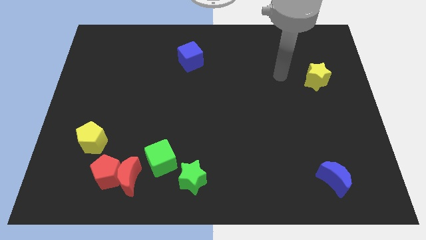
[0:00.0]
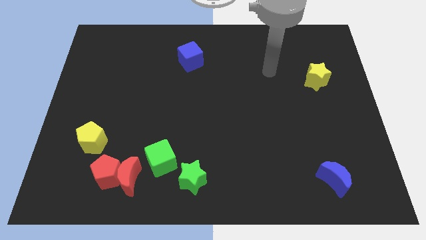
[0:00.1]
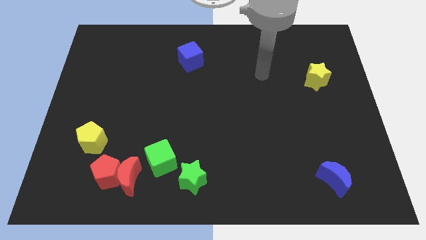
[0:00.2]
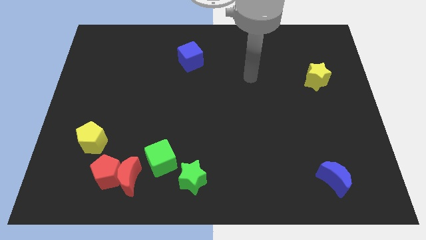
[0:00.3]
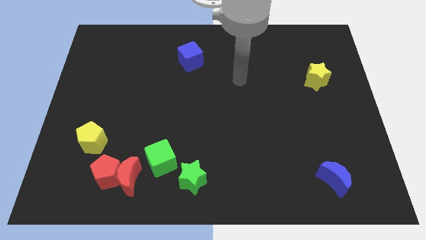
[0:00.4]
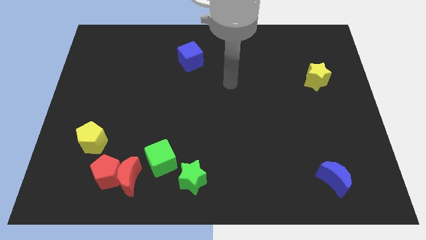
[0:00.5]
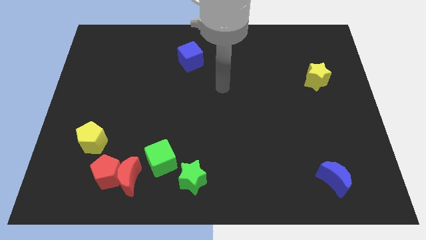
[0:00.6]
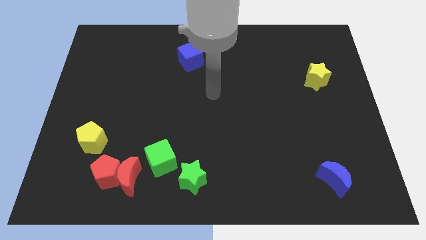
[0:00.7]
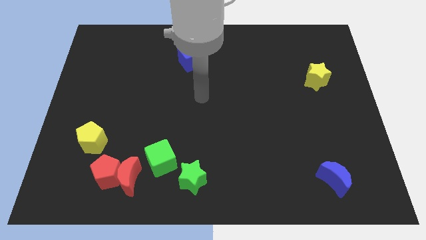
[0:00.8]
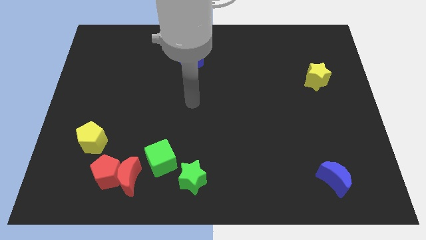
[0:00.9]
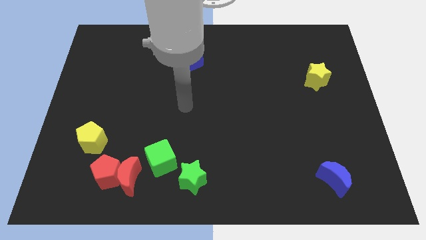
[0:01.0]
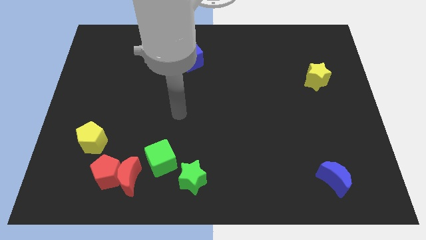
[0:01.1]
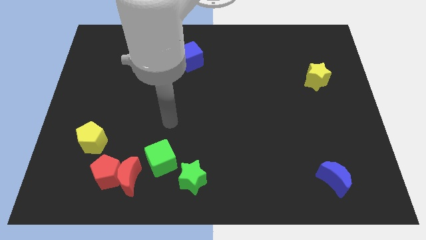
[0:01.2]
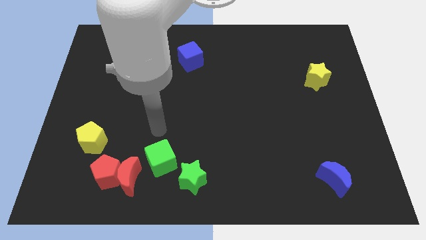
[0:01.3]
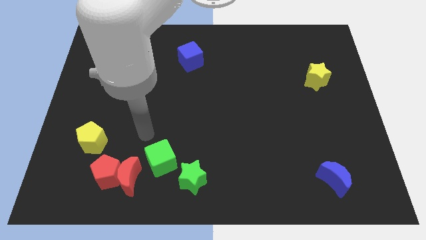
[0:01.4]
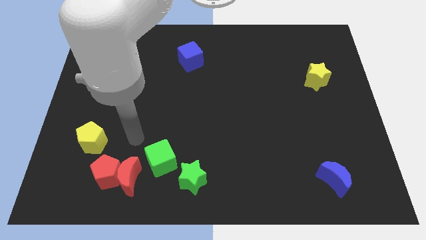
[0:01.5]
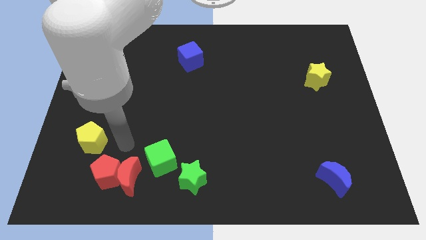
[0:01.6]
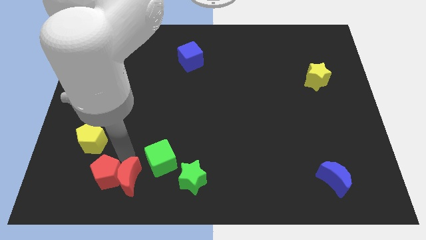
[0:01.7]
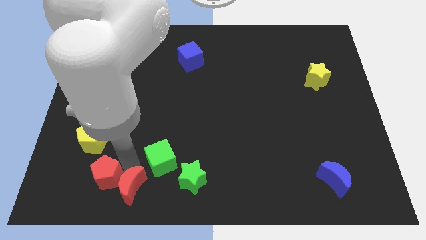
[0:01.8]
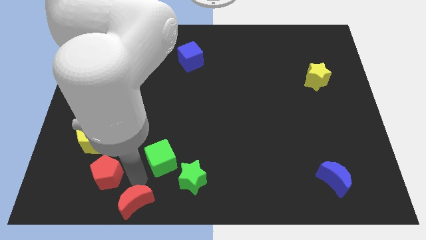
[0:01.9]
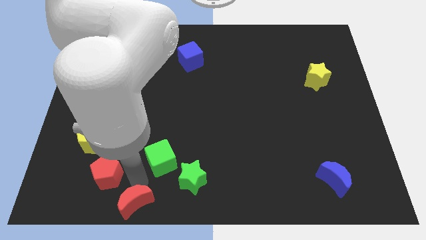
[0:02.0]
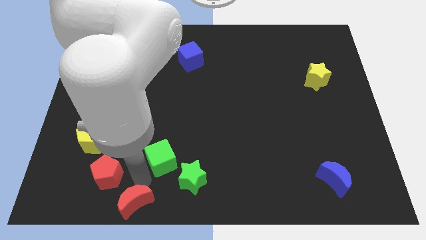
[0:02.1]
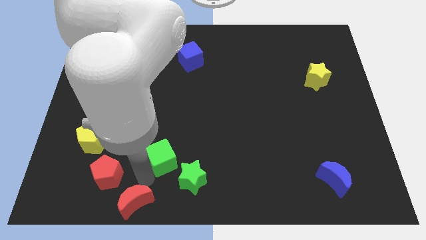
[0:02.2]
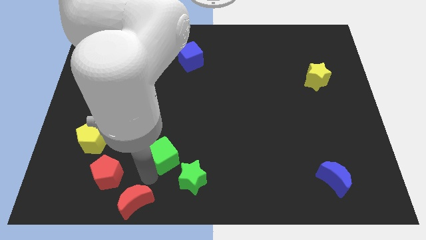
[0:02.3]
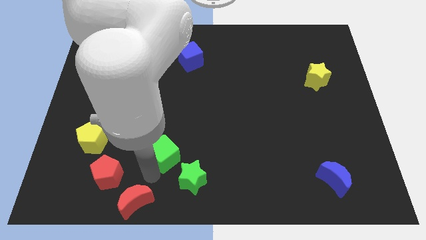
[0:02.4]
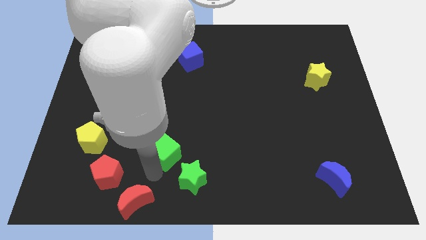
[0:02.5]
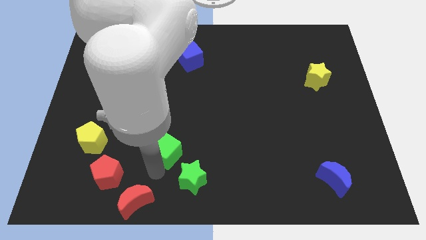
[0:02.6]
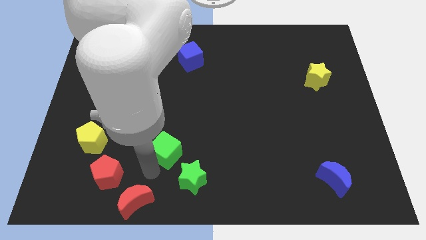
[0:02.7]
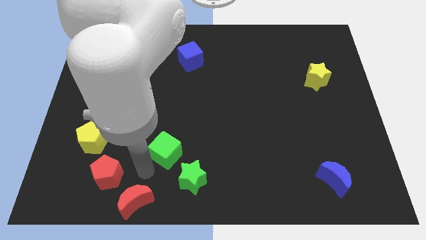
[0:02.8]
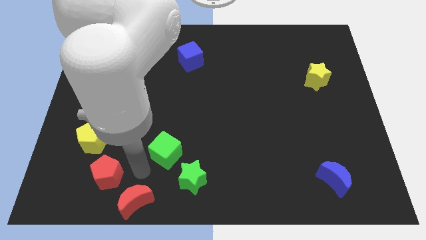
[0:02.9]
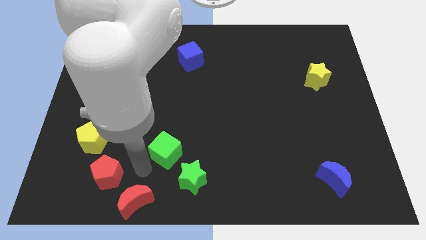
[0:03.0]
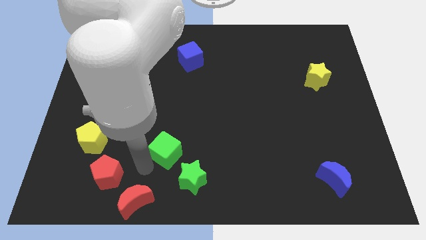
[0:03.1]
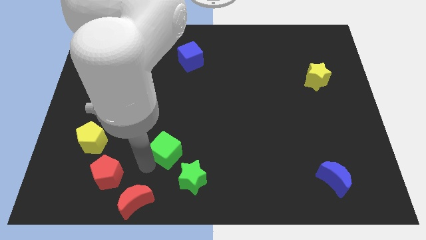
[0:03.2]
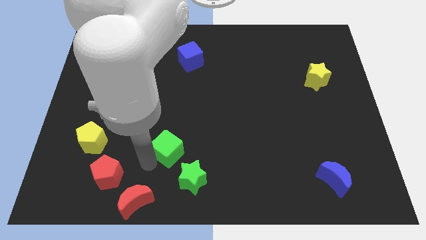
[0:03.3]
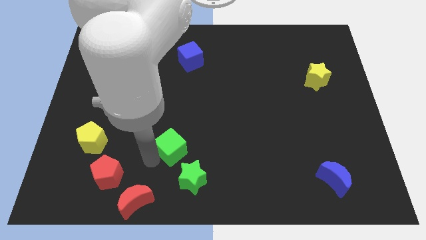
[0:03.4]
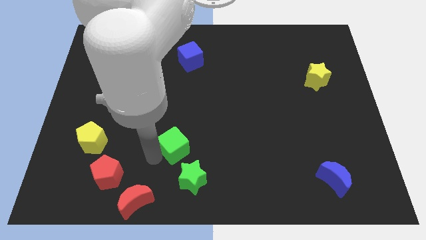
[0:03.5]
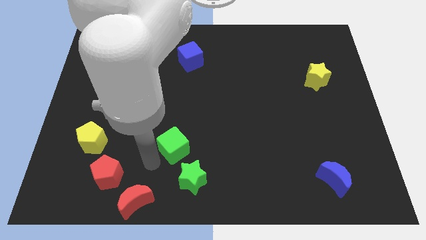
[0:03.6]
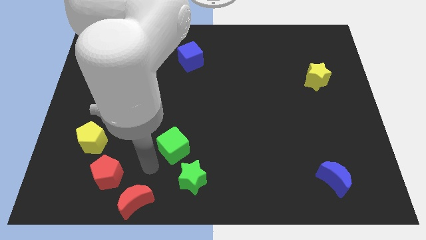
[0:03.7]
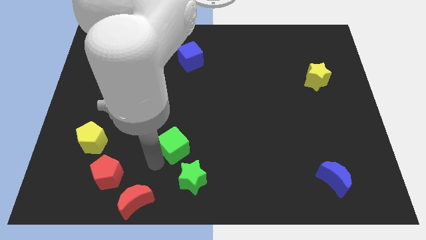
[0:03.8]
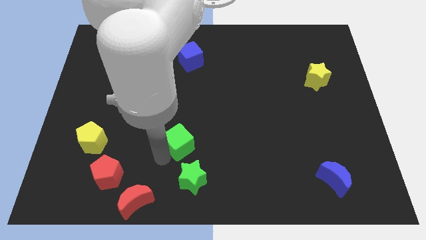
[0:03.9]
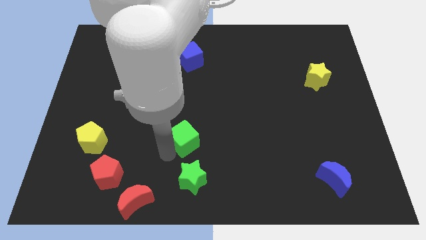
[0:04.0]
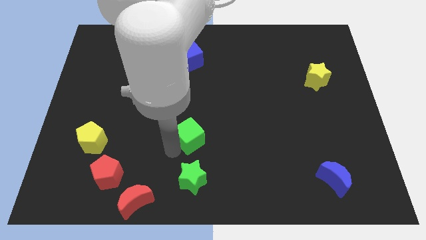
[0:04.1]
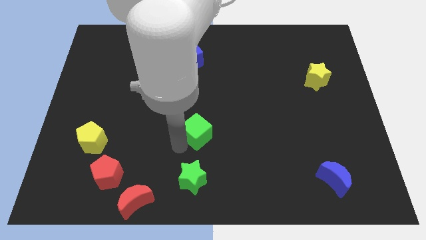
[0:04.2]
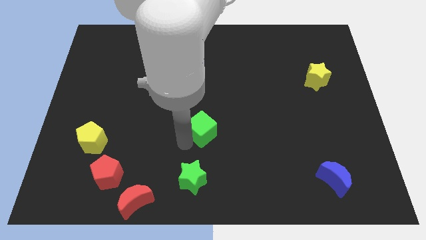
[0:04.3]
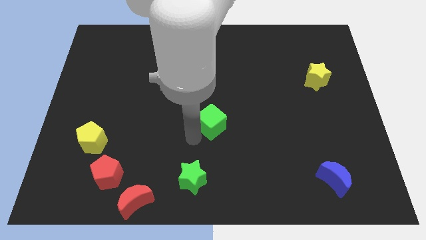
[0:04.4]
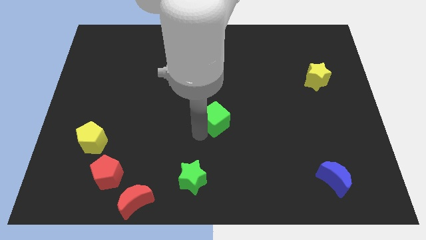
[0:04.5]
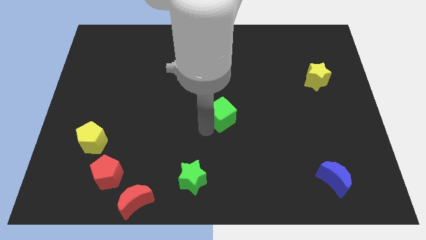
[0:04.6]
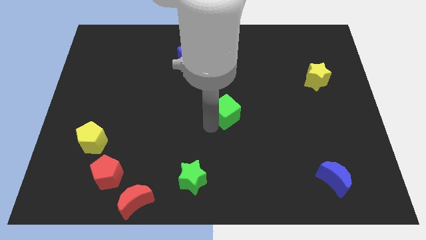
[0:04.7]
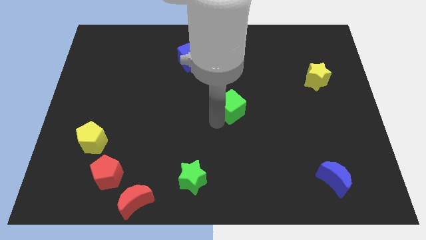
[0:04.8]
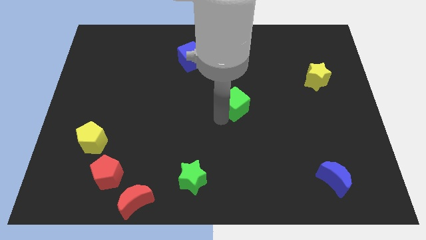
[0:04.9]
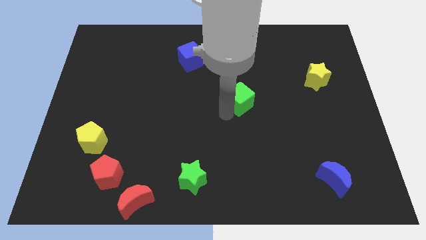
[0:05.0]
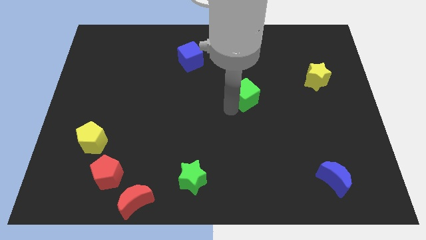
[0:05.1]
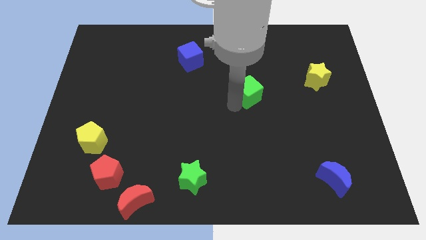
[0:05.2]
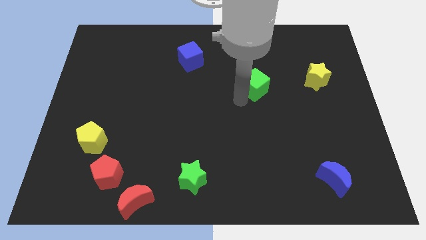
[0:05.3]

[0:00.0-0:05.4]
put the green cube to the left of the yellow star
